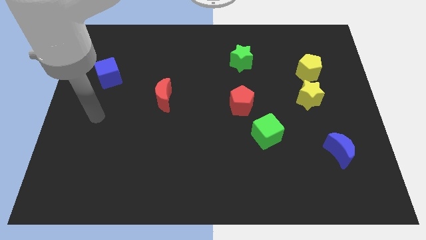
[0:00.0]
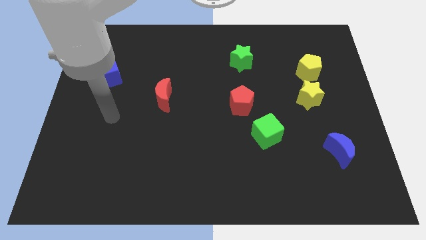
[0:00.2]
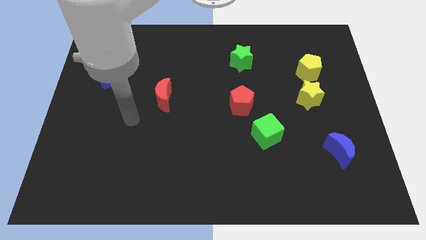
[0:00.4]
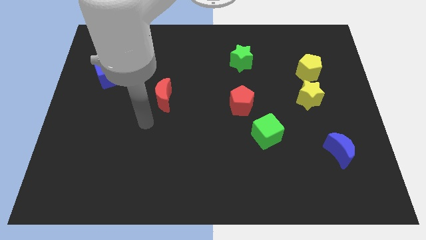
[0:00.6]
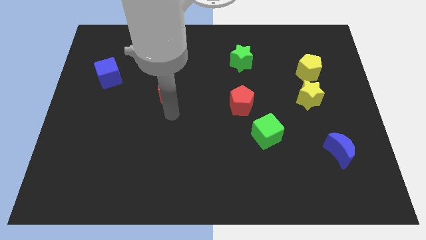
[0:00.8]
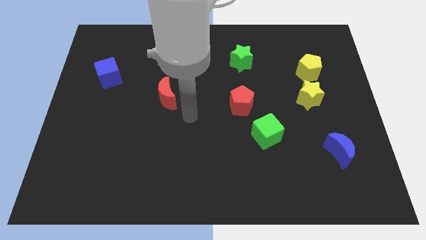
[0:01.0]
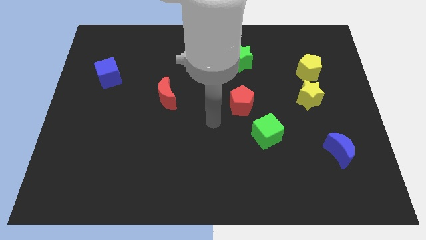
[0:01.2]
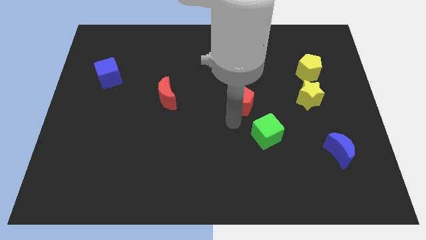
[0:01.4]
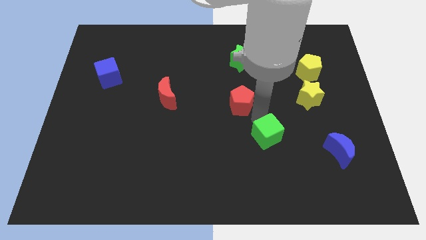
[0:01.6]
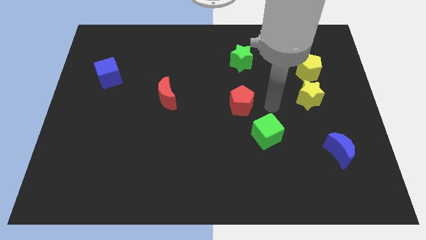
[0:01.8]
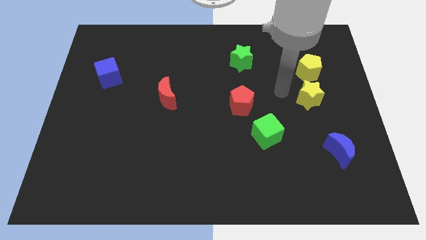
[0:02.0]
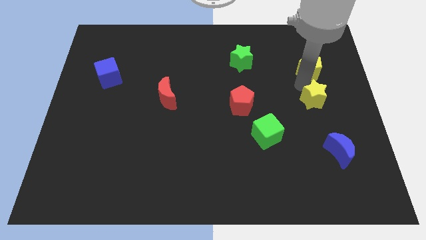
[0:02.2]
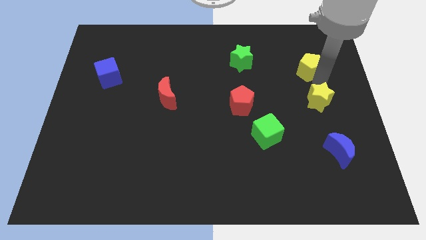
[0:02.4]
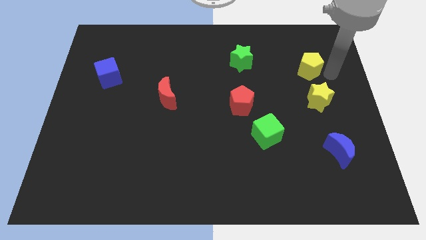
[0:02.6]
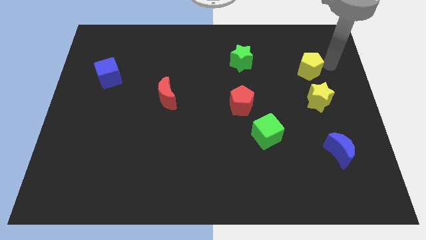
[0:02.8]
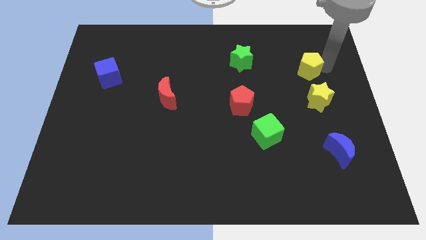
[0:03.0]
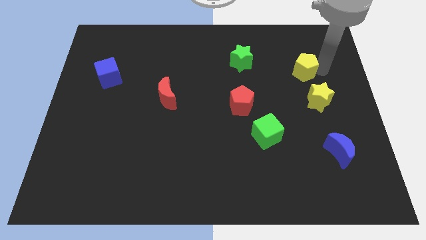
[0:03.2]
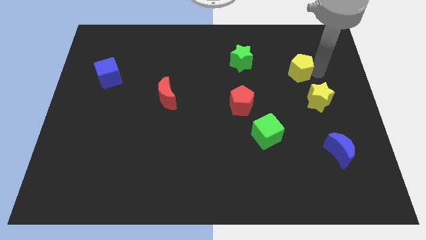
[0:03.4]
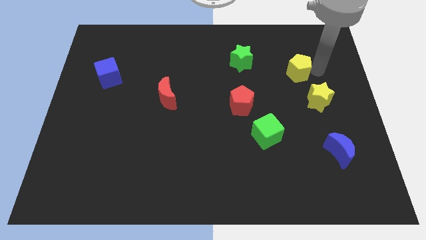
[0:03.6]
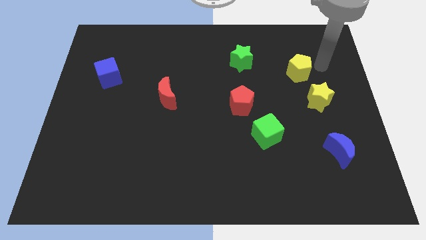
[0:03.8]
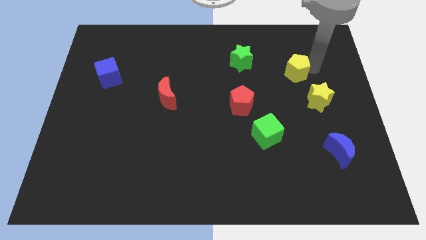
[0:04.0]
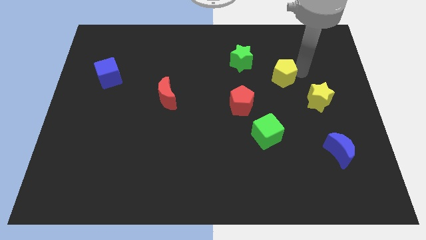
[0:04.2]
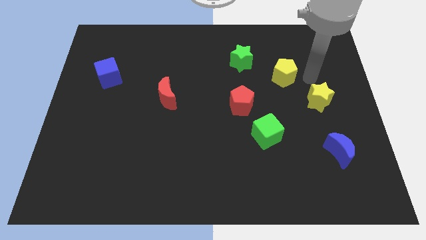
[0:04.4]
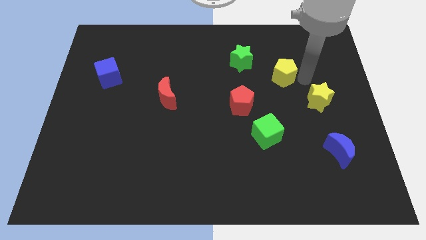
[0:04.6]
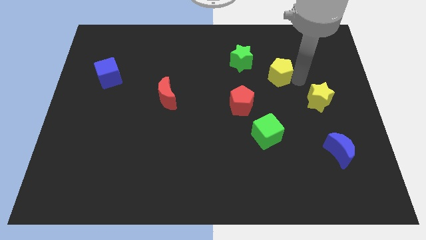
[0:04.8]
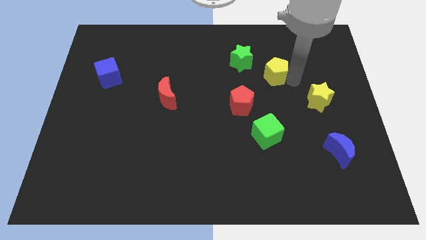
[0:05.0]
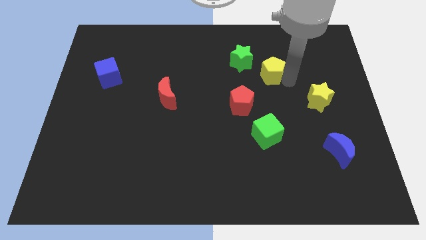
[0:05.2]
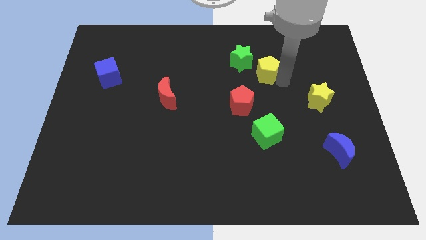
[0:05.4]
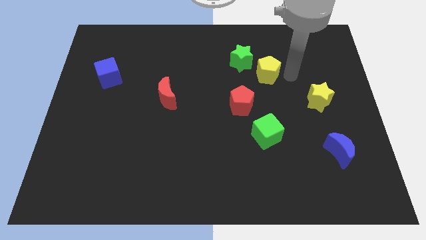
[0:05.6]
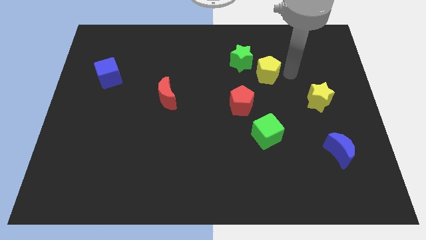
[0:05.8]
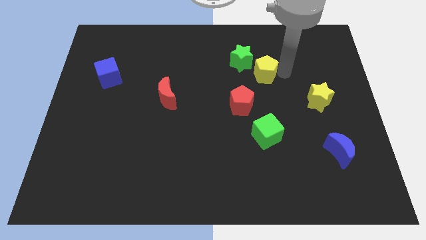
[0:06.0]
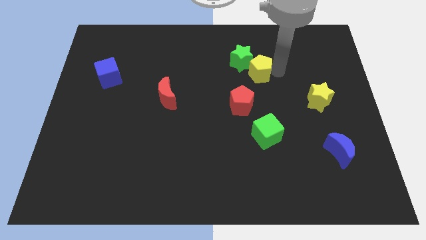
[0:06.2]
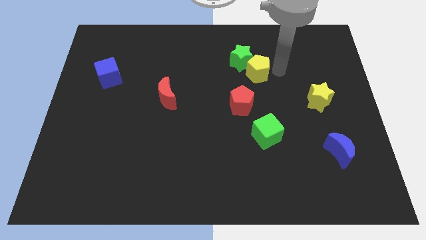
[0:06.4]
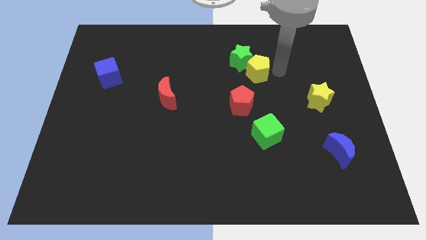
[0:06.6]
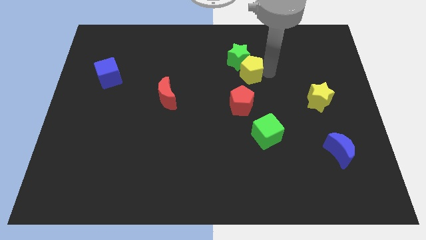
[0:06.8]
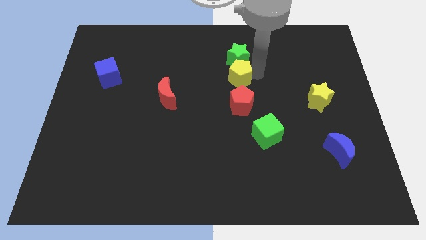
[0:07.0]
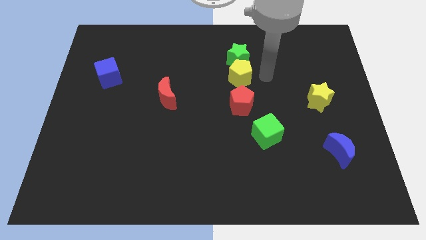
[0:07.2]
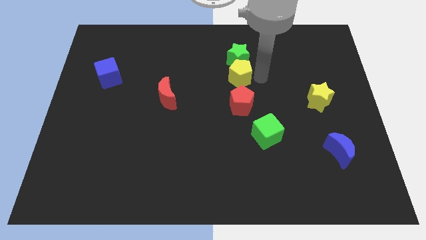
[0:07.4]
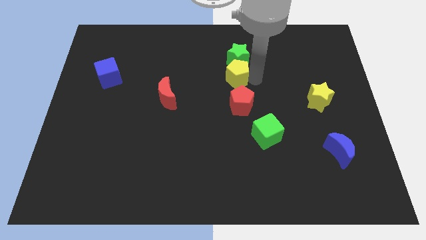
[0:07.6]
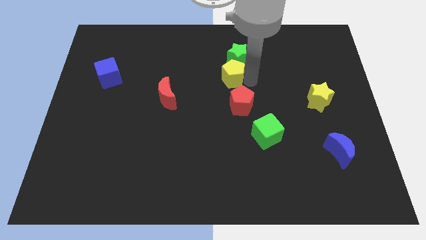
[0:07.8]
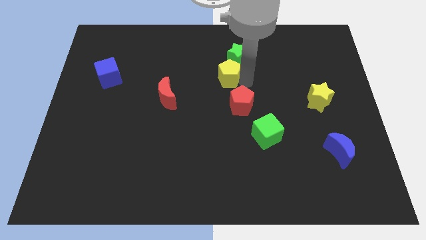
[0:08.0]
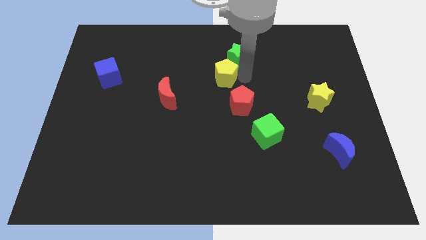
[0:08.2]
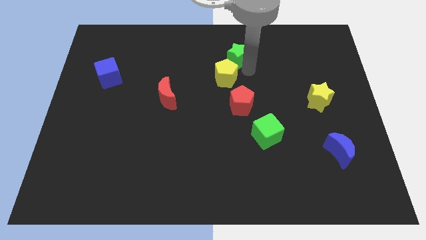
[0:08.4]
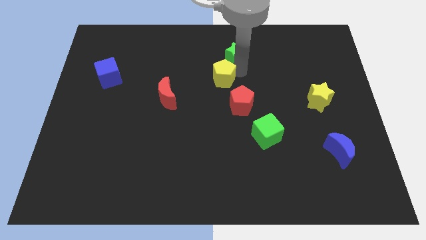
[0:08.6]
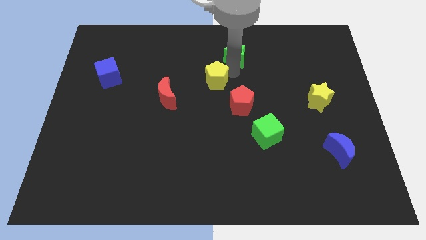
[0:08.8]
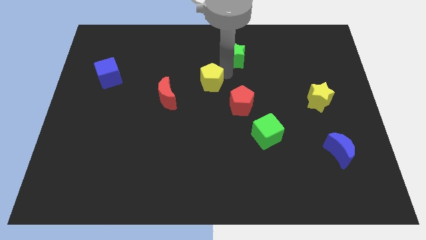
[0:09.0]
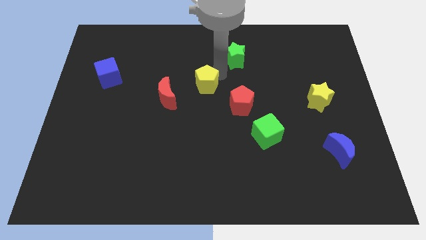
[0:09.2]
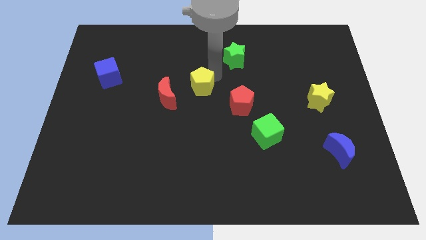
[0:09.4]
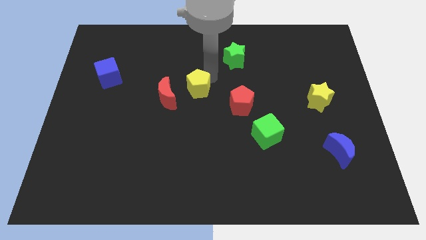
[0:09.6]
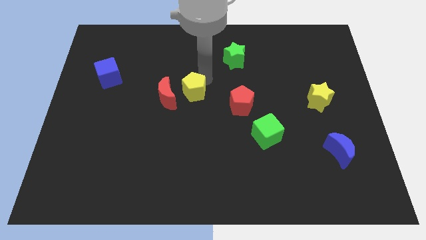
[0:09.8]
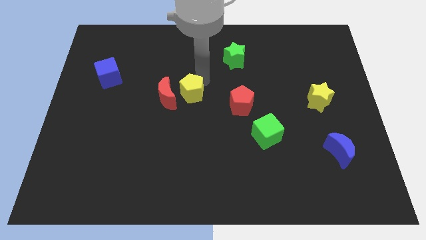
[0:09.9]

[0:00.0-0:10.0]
slide the yellow pentagon next to the red moon

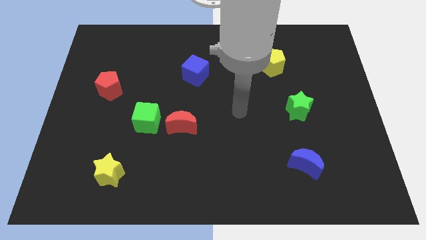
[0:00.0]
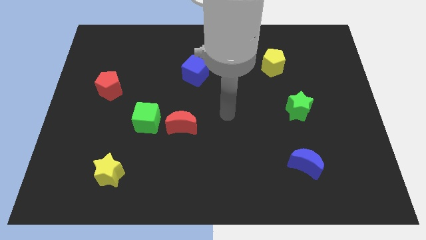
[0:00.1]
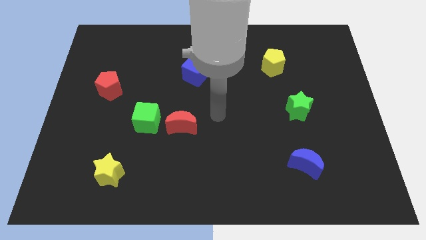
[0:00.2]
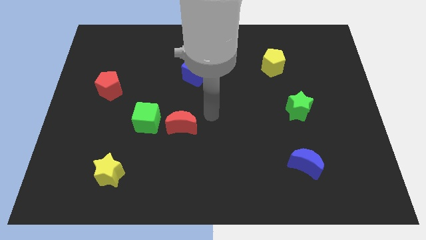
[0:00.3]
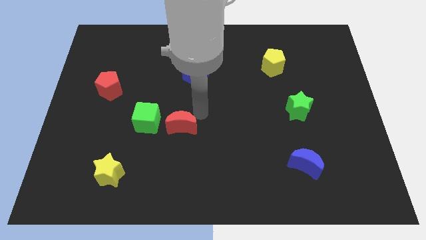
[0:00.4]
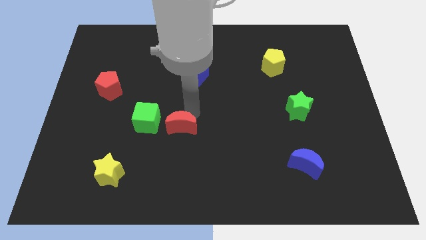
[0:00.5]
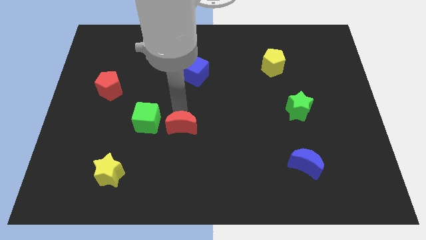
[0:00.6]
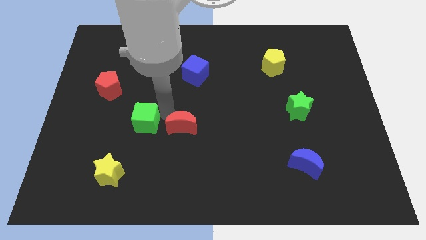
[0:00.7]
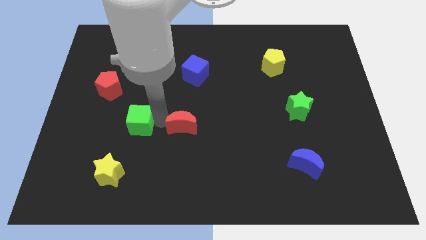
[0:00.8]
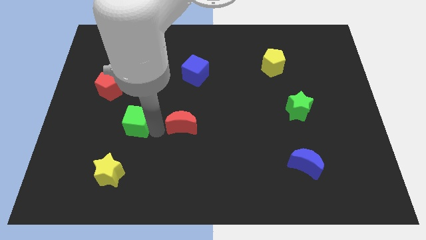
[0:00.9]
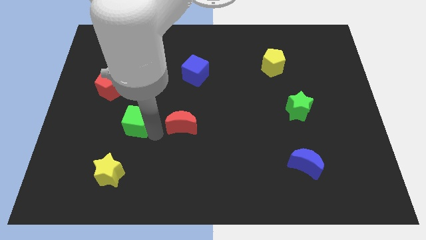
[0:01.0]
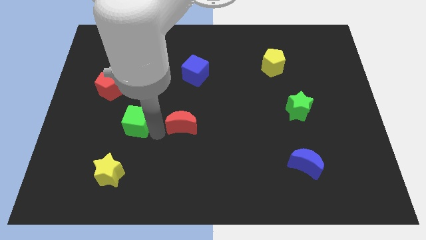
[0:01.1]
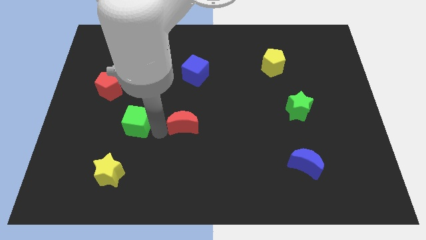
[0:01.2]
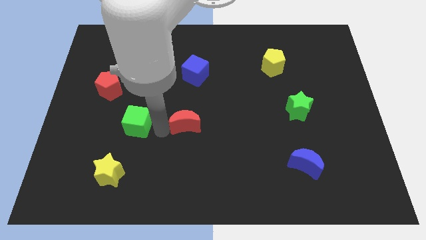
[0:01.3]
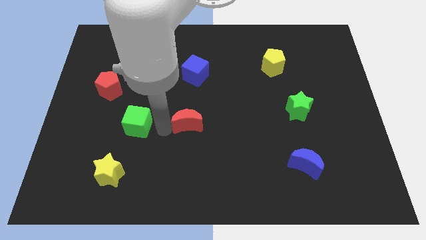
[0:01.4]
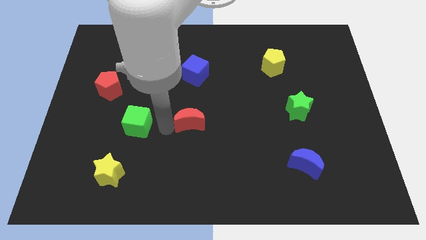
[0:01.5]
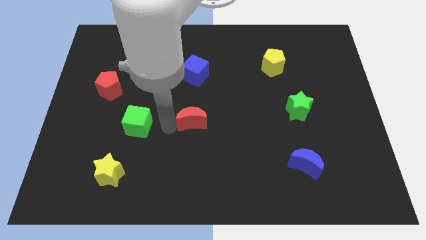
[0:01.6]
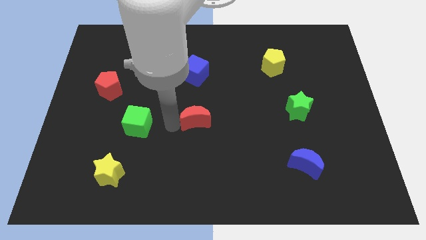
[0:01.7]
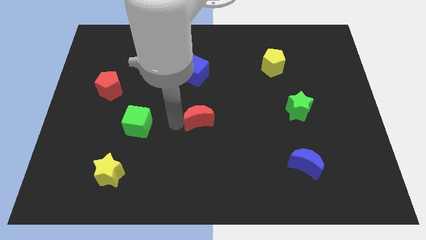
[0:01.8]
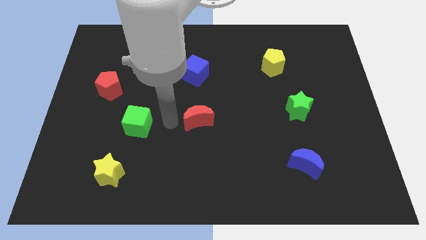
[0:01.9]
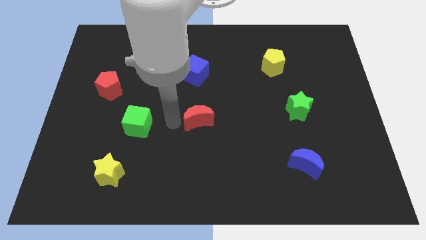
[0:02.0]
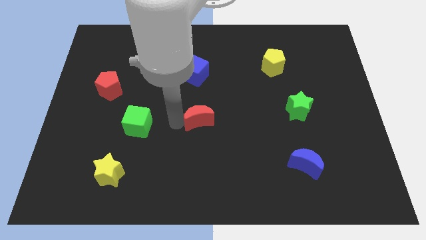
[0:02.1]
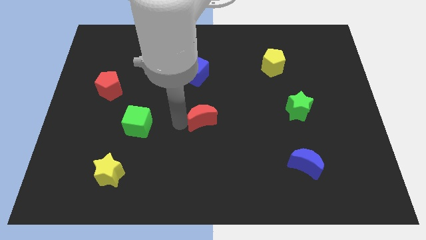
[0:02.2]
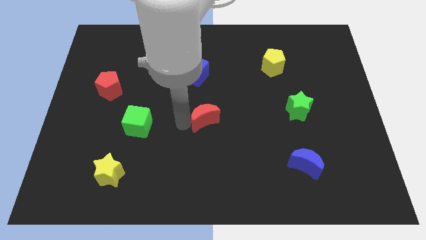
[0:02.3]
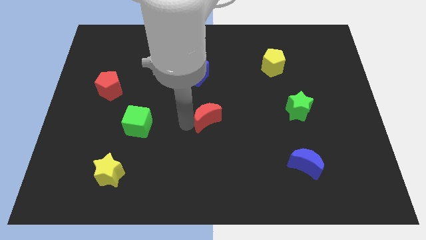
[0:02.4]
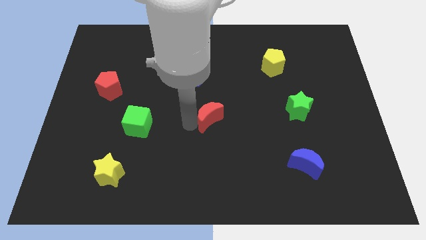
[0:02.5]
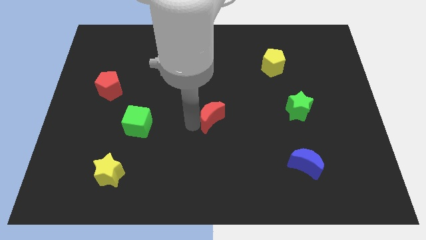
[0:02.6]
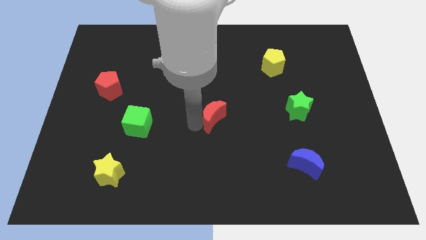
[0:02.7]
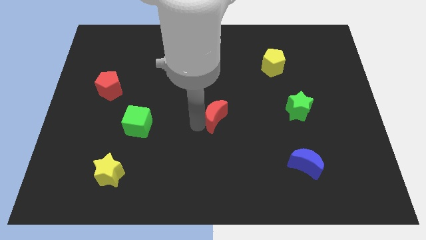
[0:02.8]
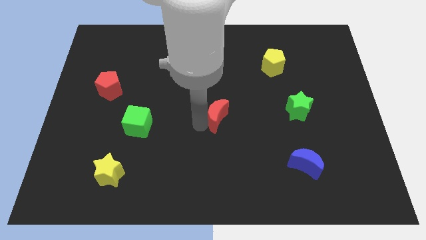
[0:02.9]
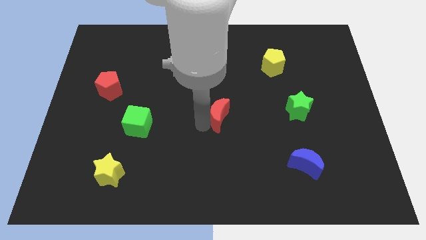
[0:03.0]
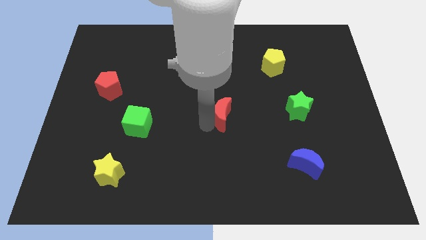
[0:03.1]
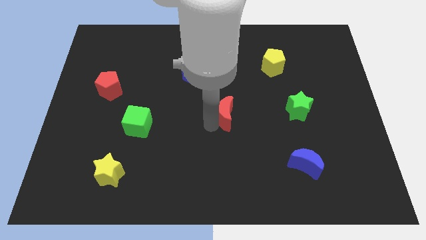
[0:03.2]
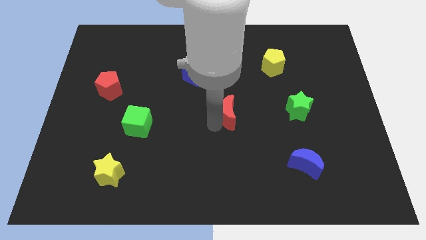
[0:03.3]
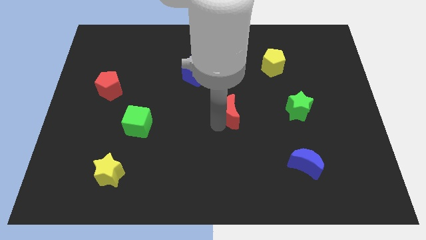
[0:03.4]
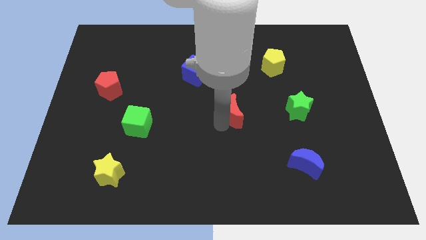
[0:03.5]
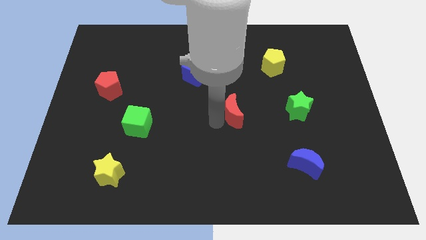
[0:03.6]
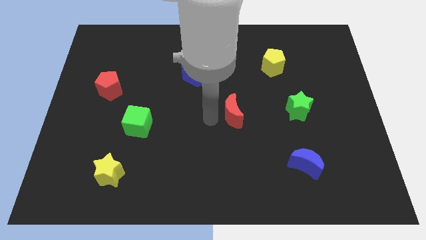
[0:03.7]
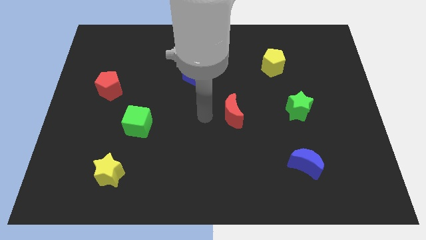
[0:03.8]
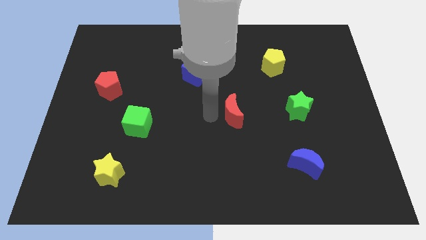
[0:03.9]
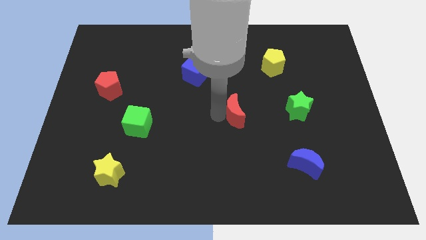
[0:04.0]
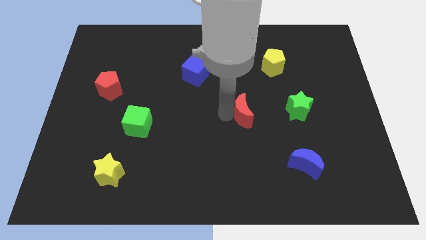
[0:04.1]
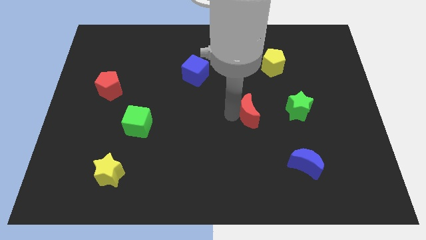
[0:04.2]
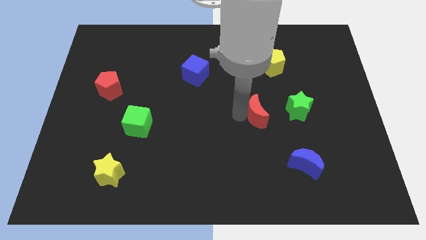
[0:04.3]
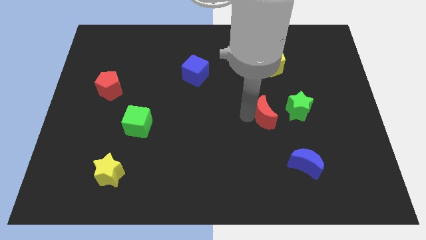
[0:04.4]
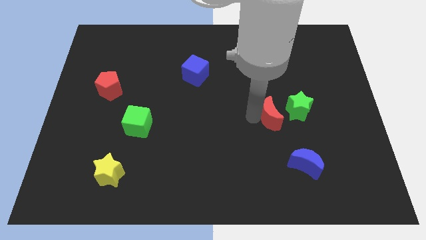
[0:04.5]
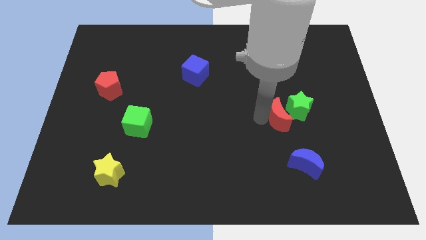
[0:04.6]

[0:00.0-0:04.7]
slide the red moon close to the green star
